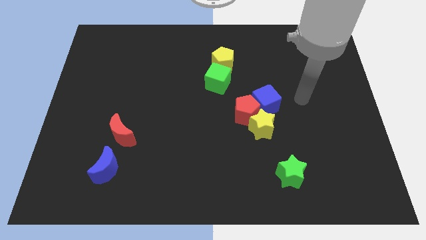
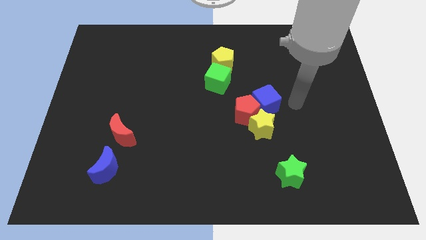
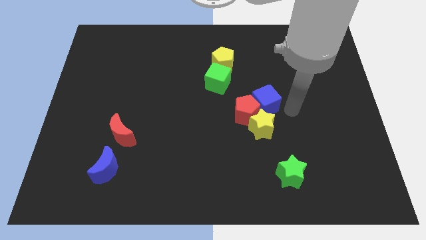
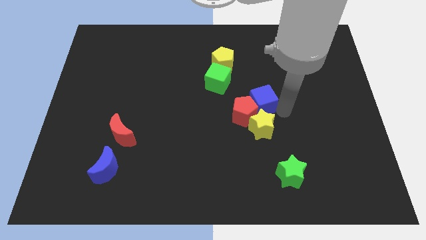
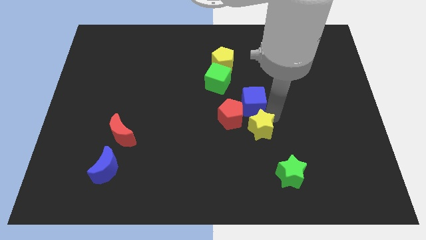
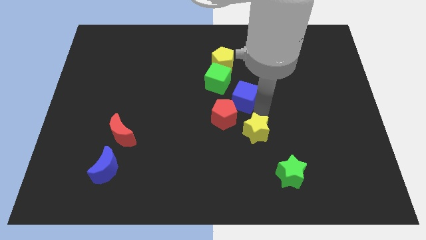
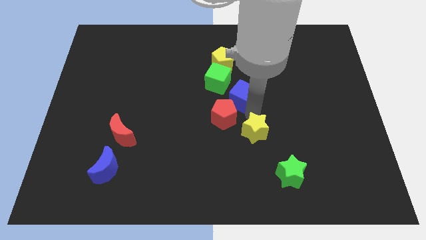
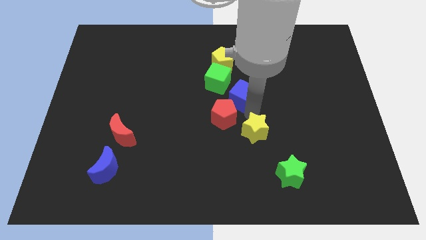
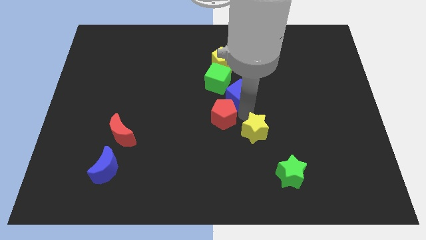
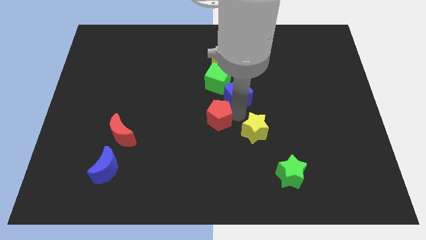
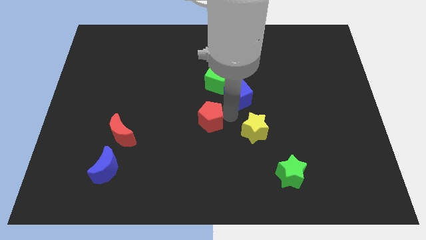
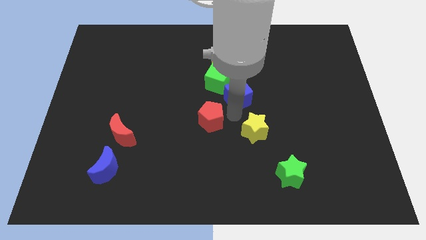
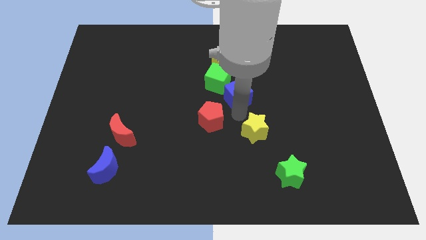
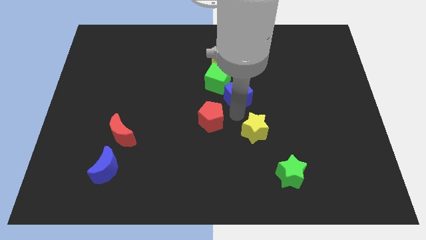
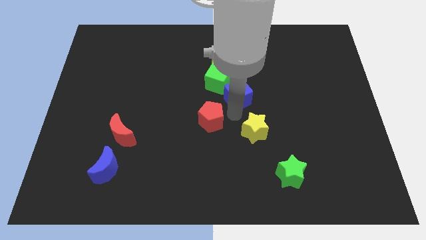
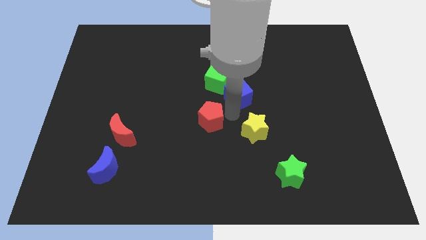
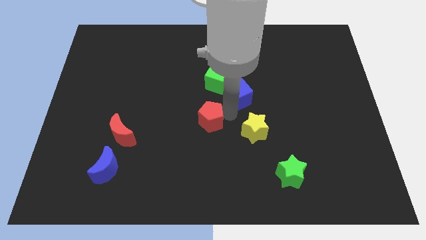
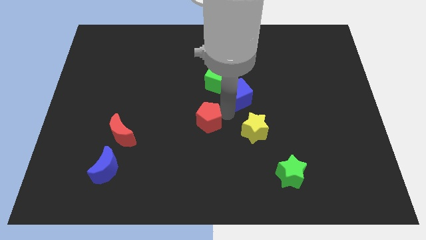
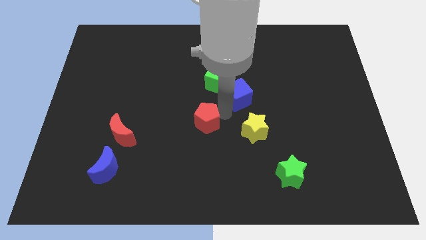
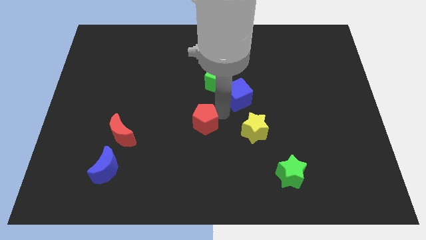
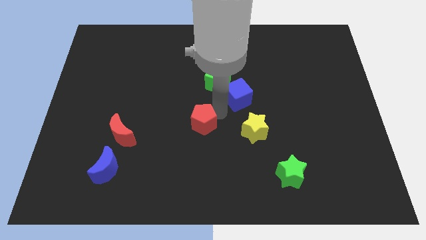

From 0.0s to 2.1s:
move the red pentagon away from the blue cube and yellow star

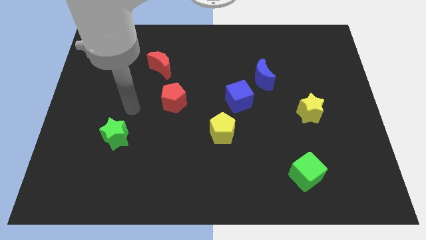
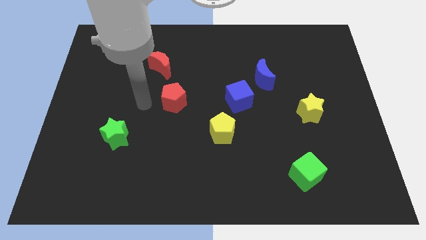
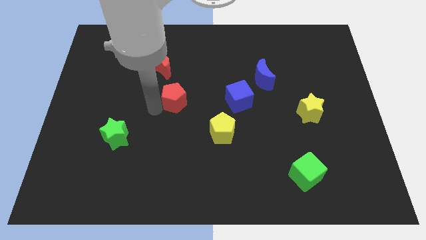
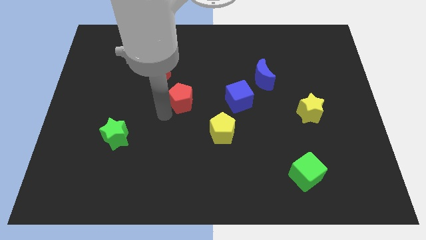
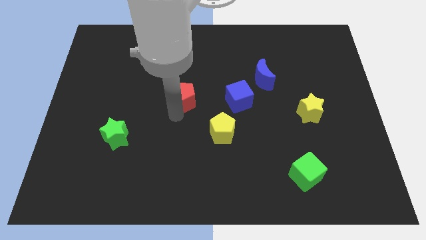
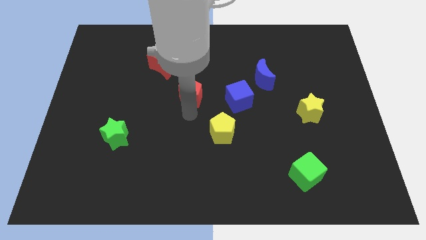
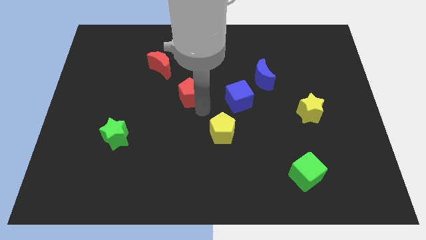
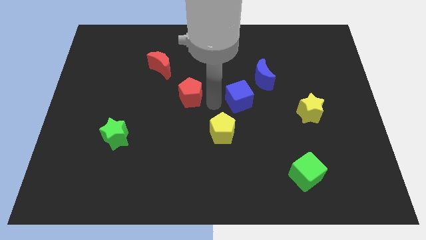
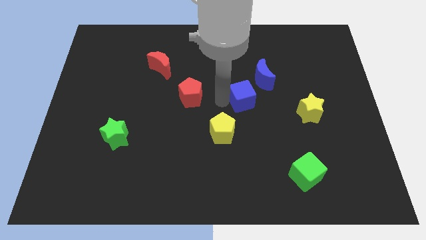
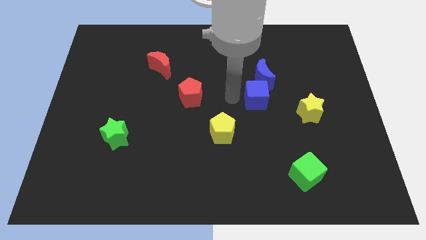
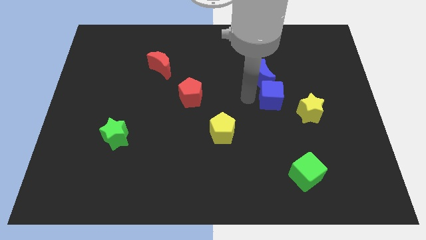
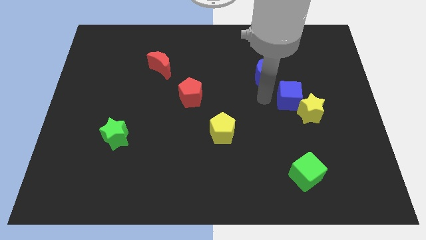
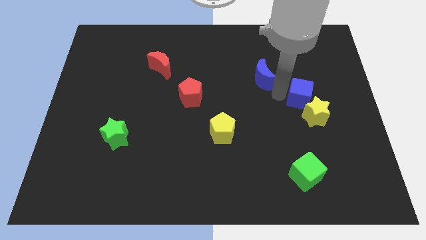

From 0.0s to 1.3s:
separate the blue moon from the blue cube

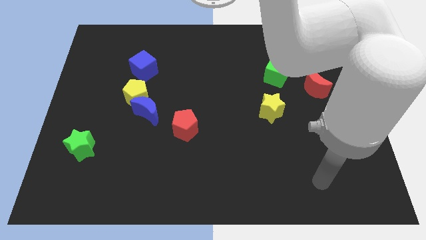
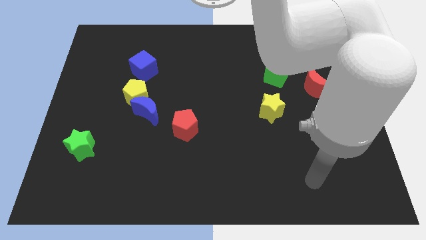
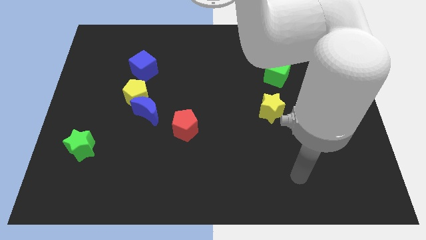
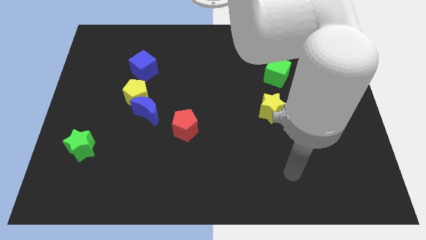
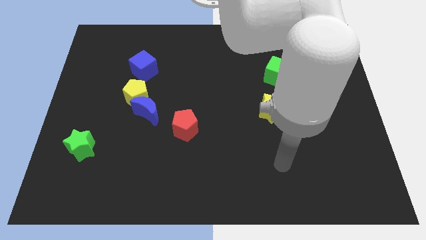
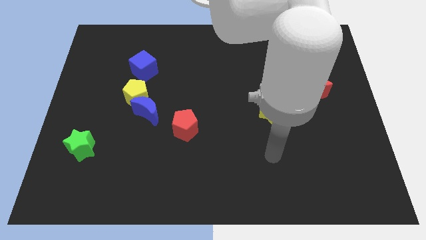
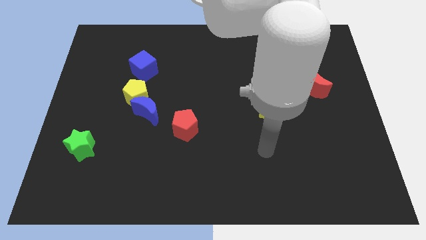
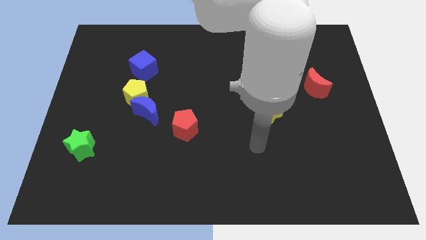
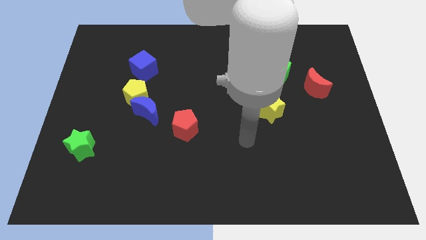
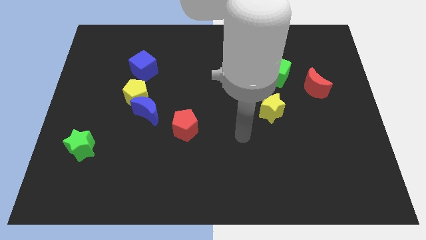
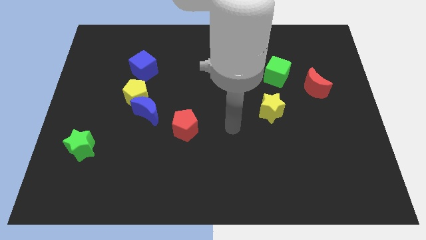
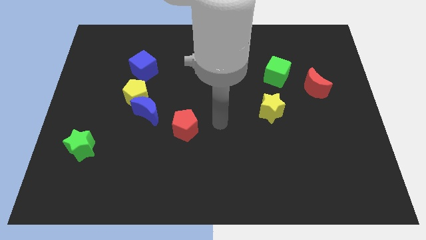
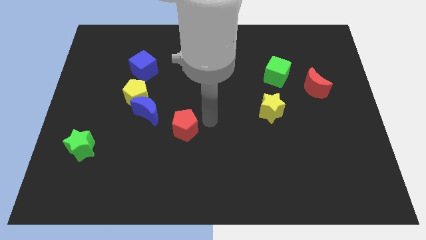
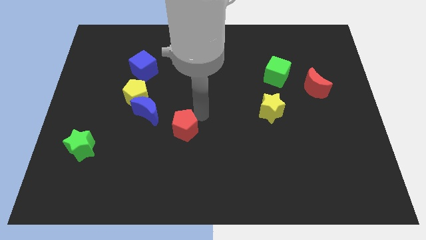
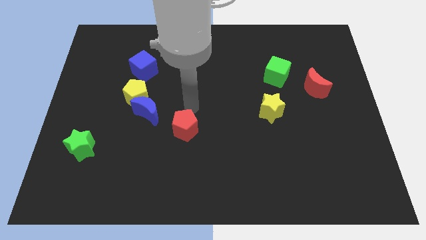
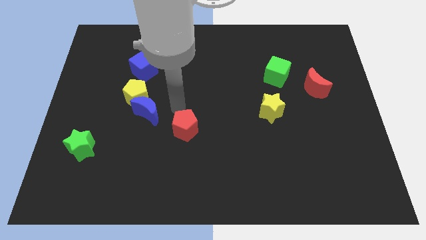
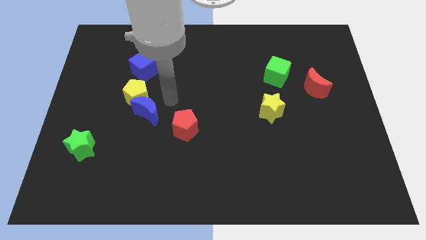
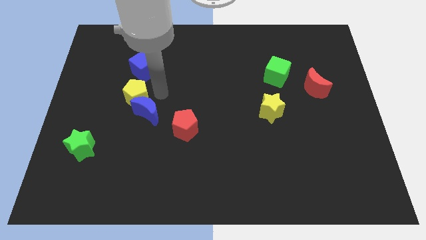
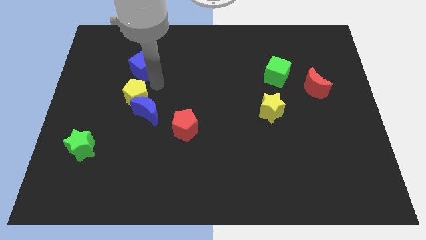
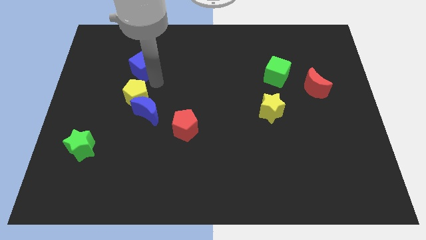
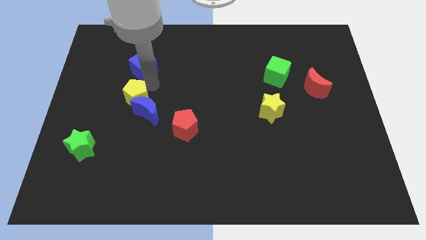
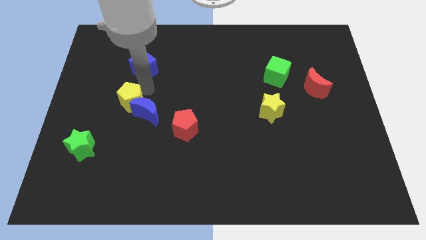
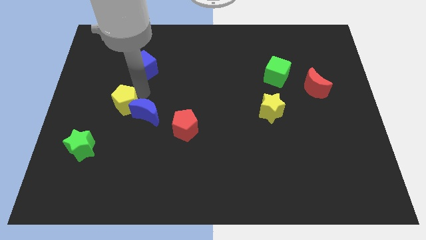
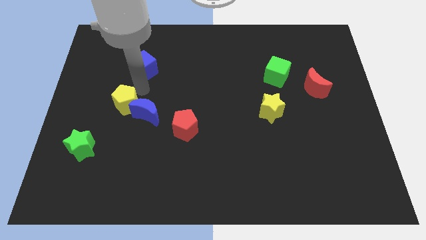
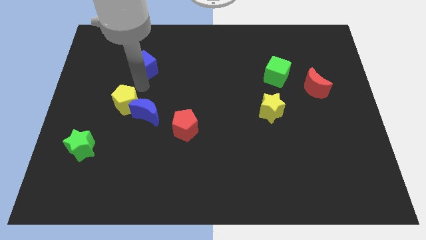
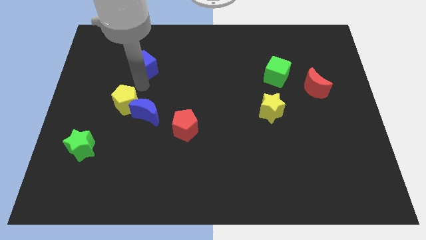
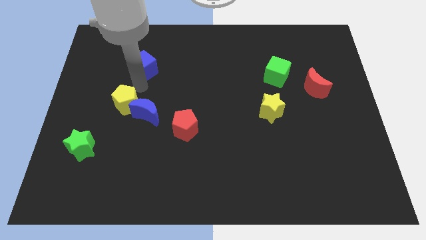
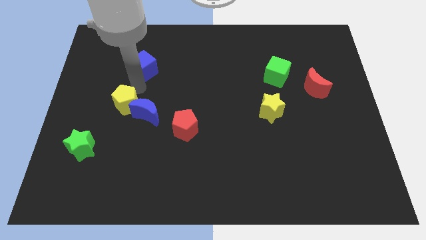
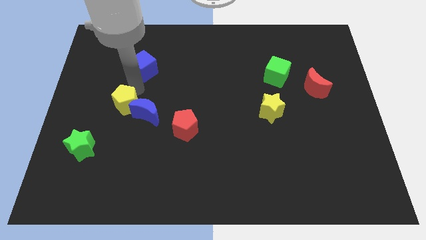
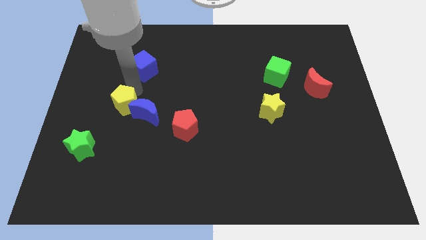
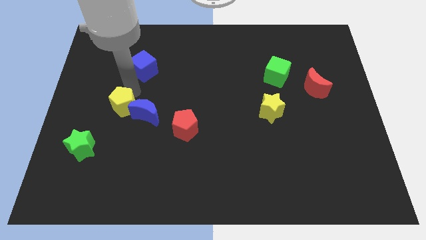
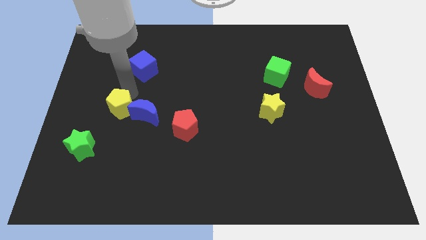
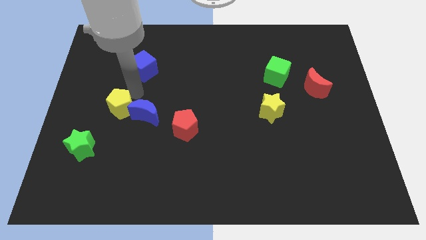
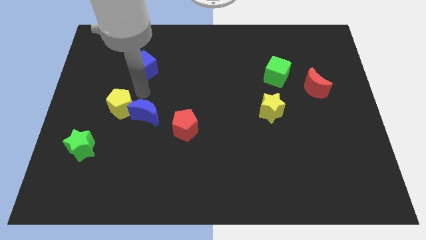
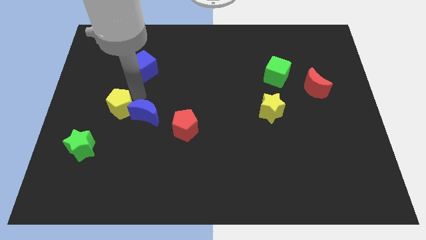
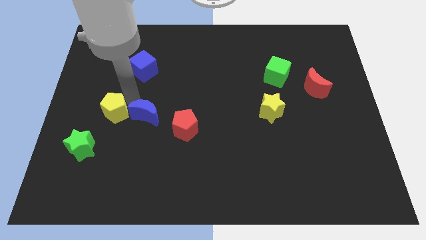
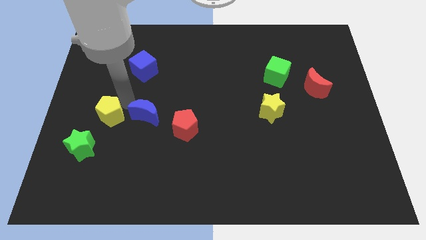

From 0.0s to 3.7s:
move the yellow pentagon away from the blue moon and blue cube

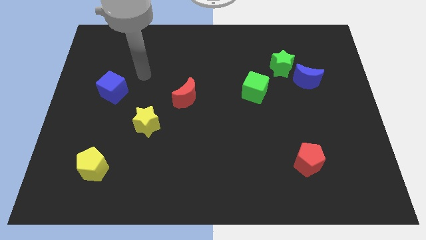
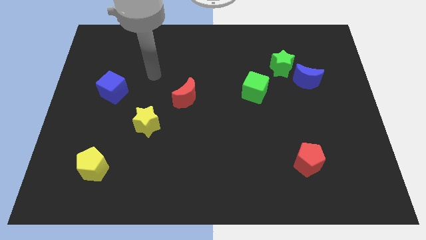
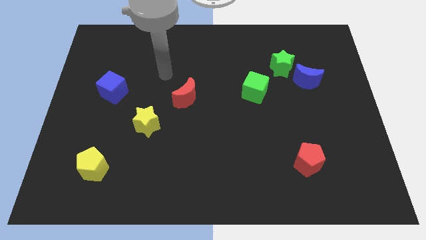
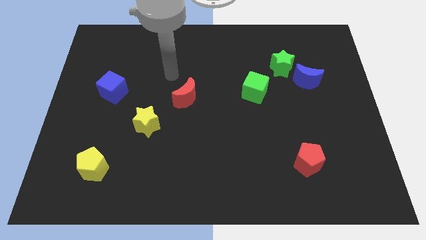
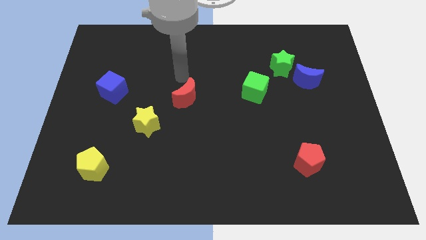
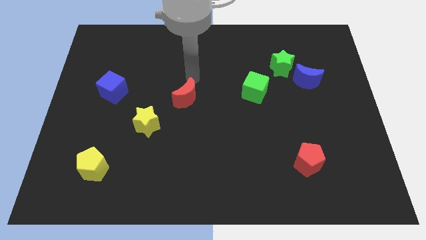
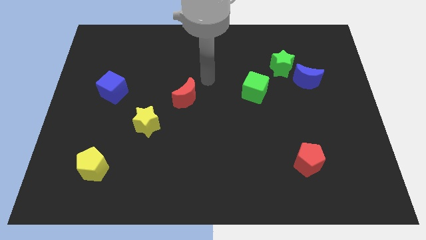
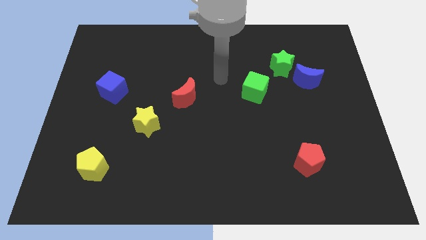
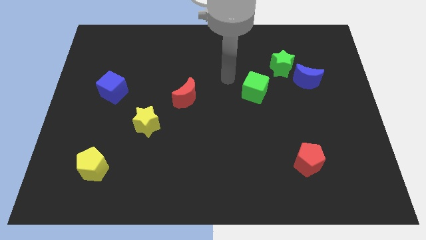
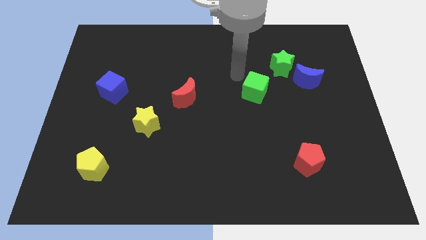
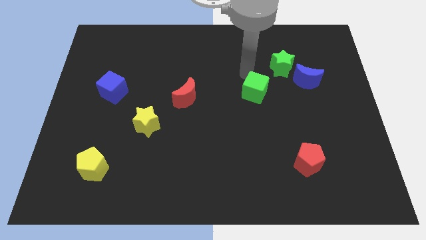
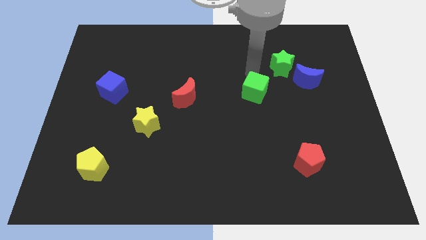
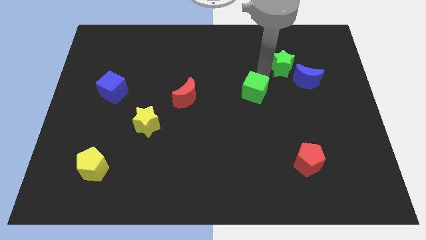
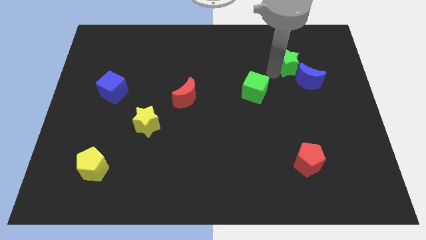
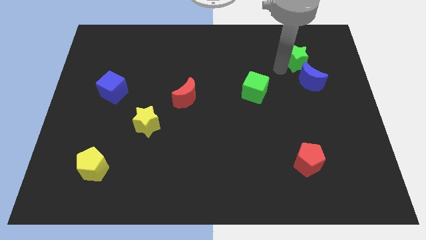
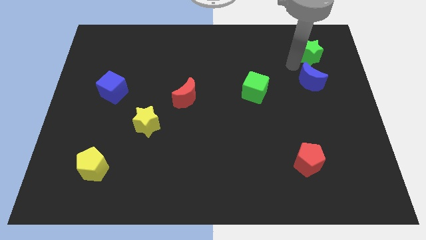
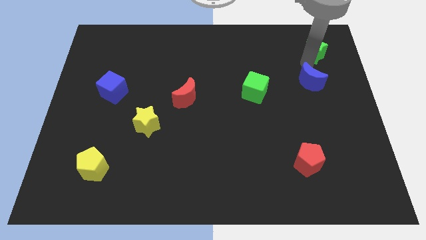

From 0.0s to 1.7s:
move the blue moon away from the green star

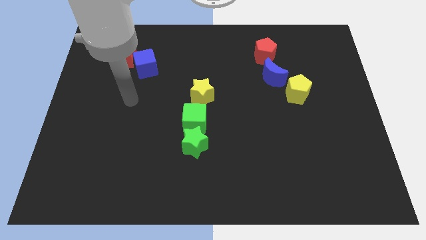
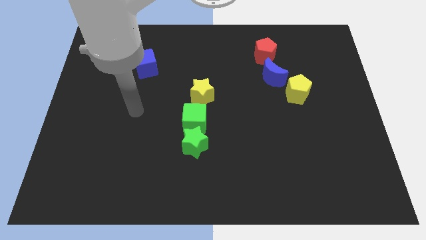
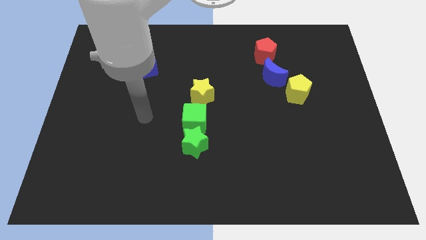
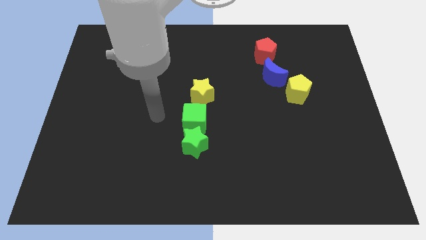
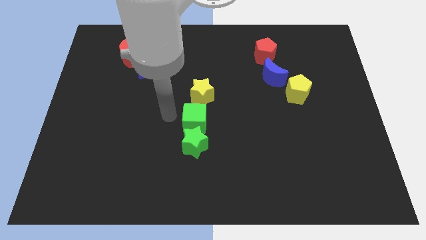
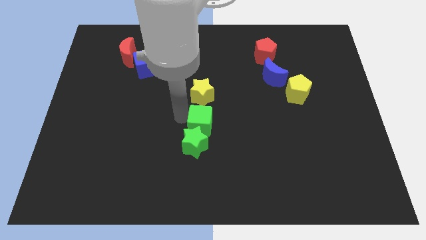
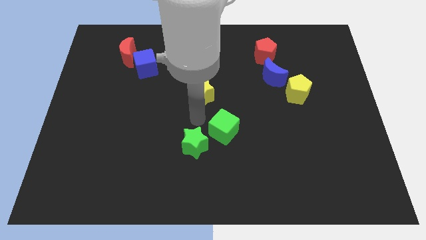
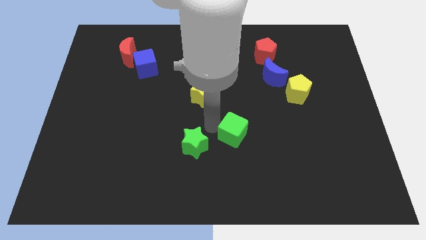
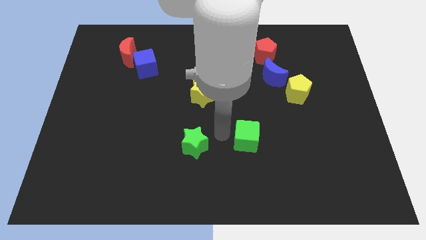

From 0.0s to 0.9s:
separate the green star from the green cube
